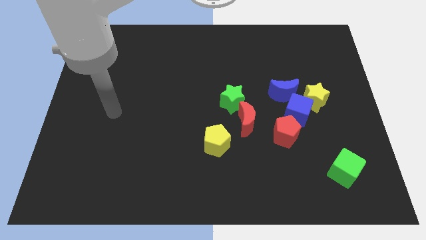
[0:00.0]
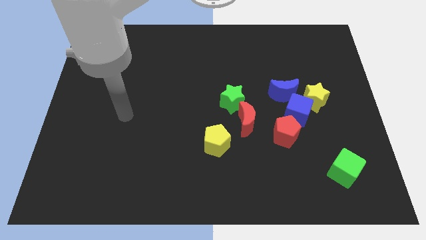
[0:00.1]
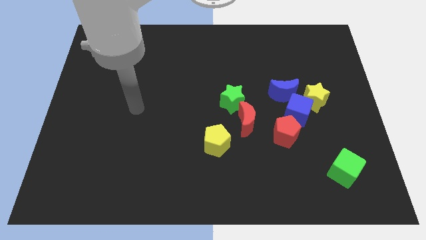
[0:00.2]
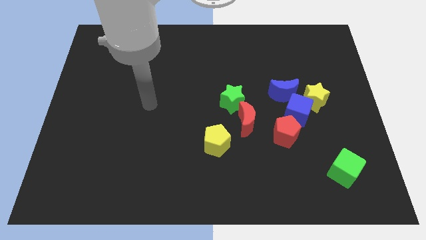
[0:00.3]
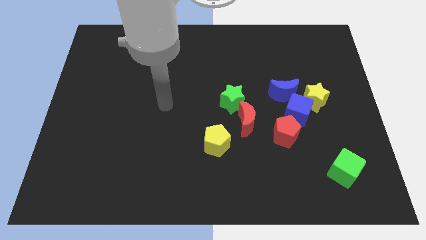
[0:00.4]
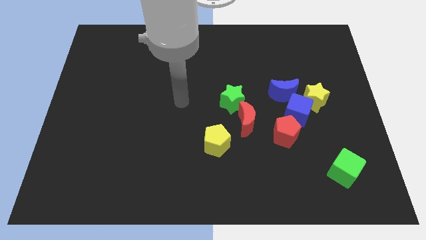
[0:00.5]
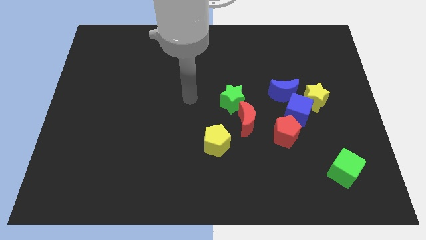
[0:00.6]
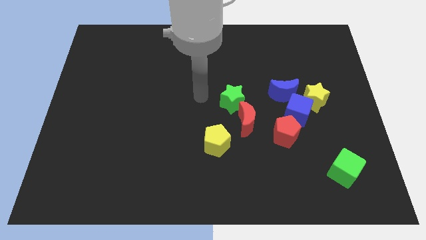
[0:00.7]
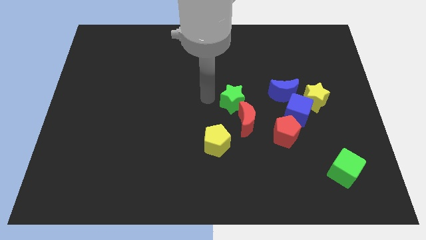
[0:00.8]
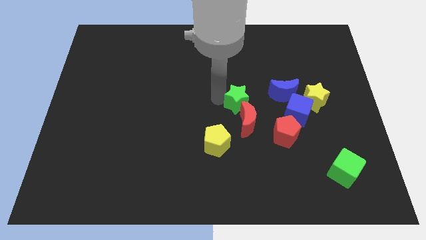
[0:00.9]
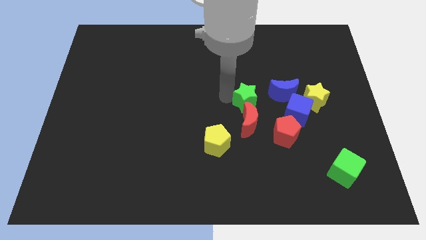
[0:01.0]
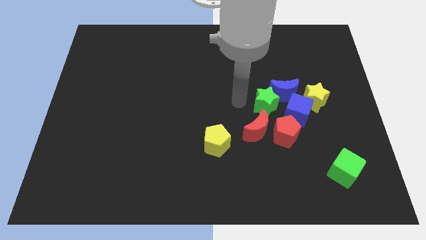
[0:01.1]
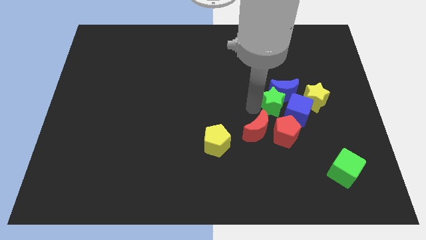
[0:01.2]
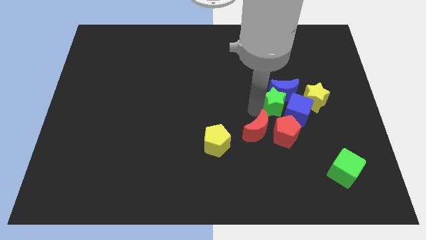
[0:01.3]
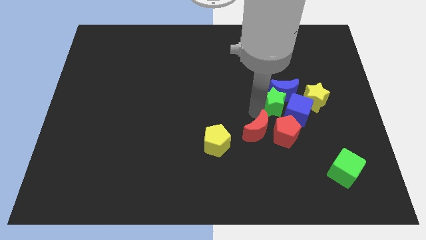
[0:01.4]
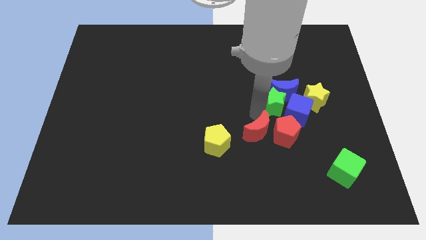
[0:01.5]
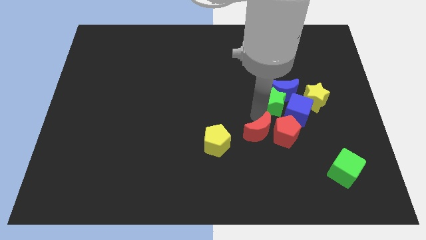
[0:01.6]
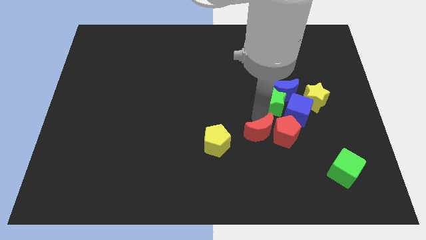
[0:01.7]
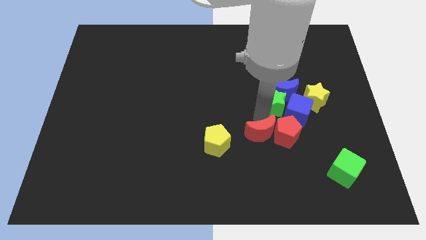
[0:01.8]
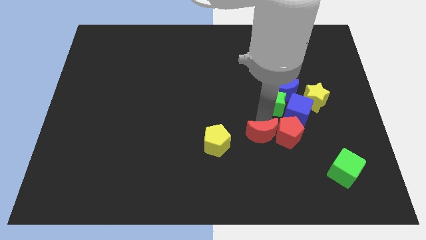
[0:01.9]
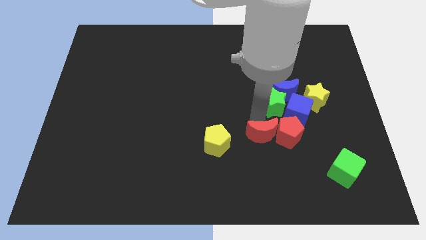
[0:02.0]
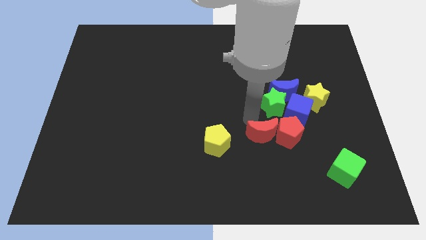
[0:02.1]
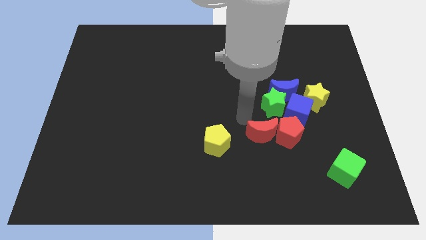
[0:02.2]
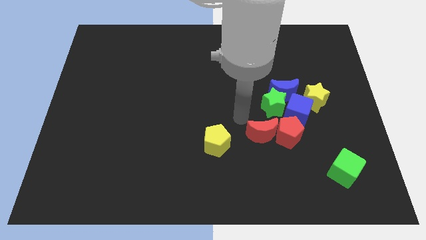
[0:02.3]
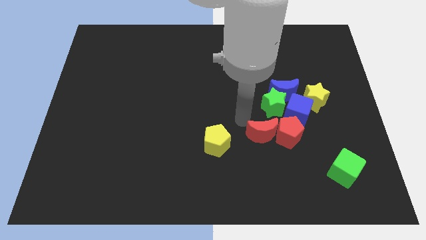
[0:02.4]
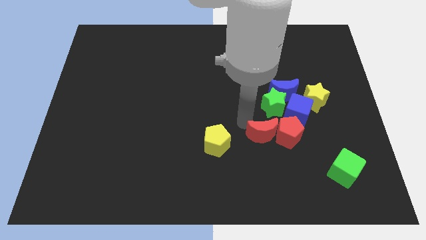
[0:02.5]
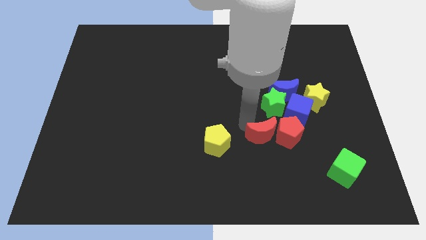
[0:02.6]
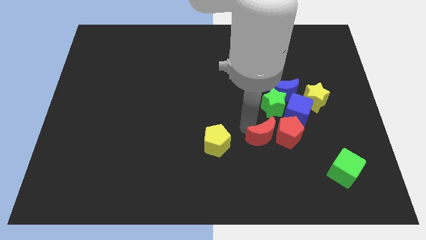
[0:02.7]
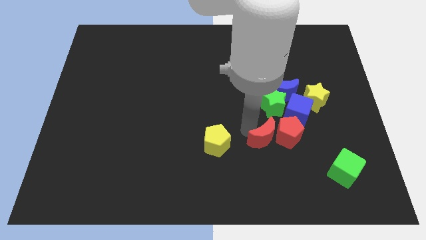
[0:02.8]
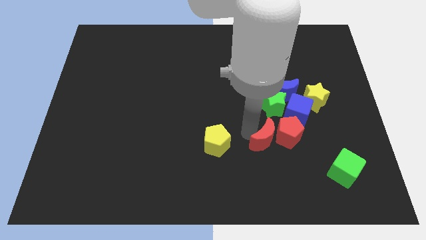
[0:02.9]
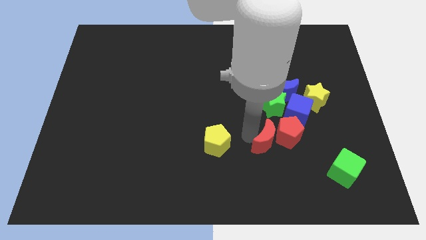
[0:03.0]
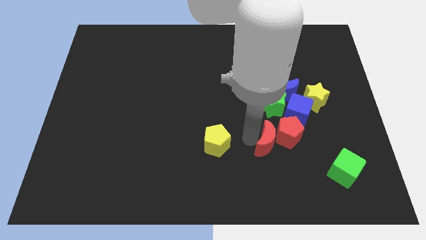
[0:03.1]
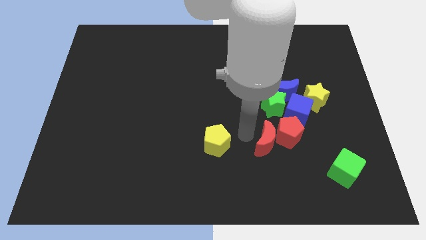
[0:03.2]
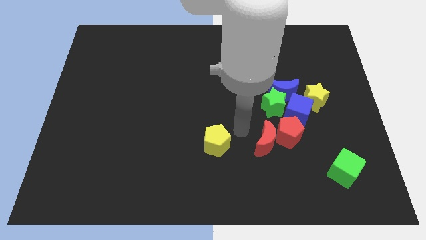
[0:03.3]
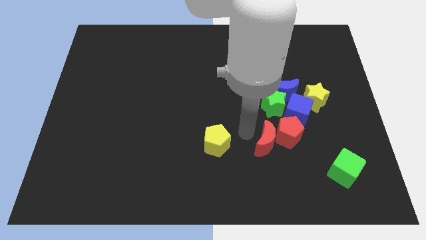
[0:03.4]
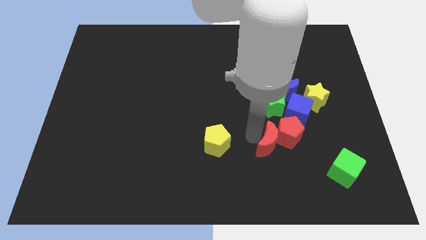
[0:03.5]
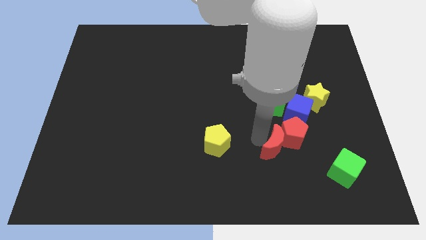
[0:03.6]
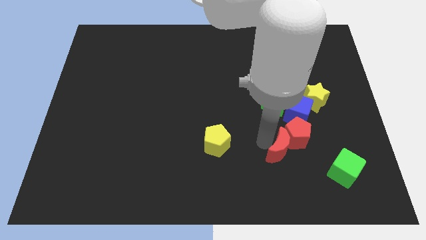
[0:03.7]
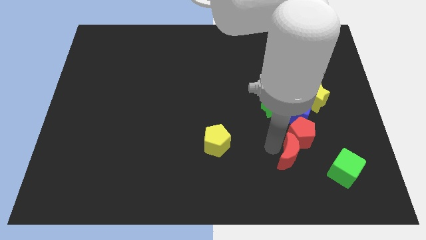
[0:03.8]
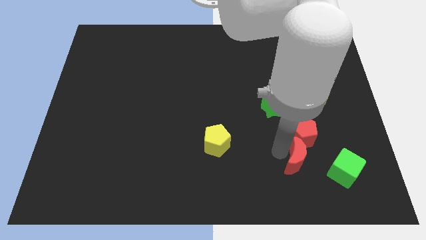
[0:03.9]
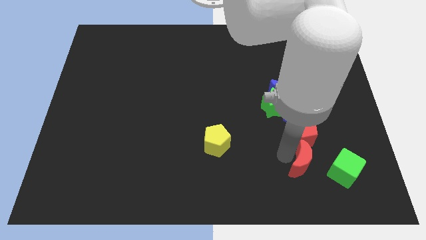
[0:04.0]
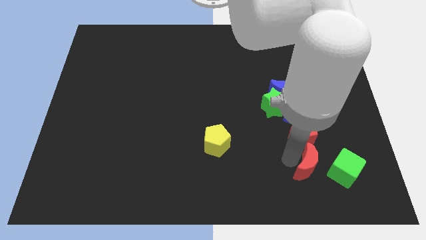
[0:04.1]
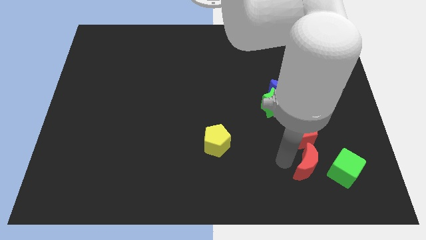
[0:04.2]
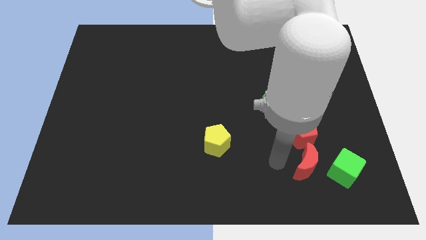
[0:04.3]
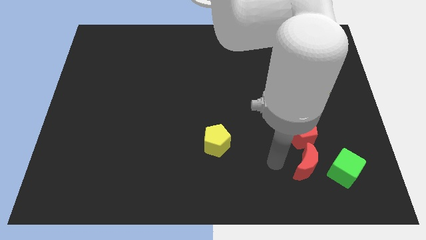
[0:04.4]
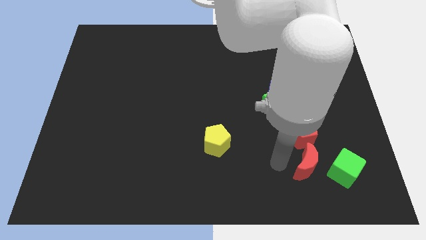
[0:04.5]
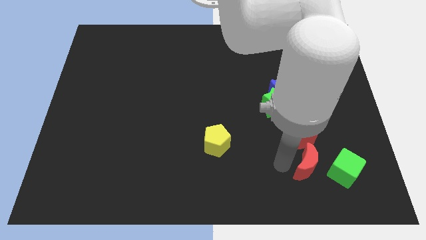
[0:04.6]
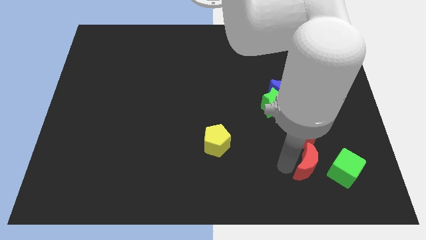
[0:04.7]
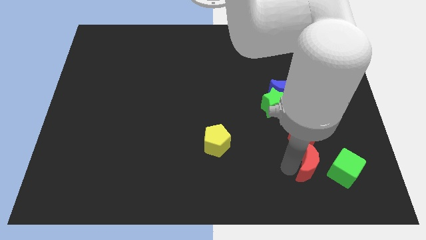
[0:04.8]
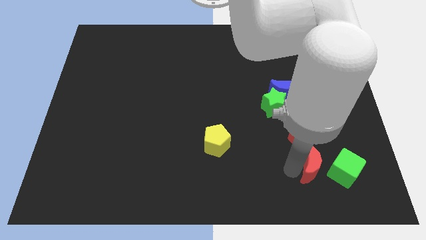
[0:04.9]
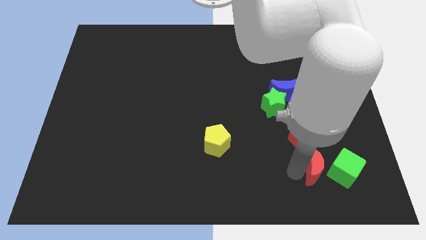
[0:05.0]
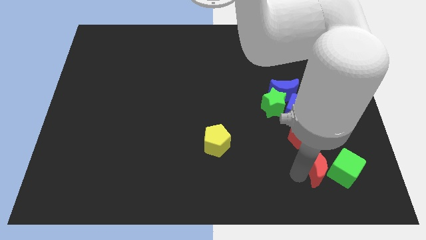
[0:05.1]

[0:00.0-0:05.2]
move the red moon close to the green cube

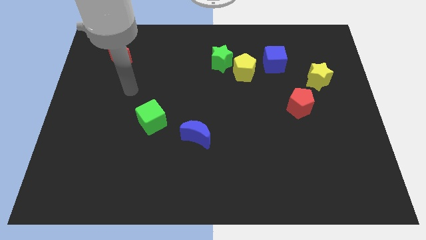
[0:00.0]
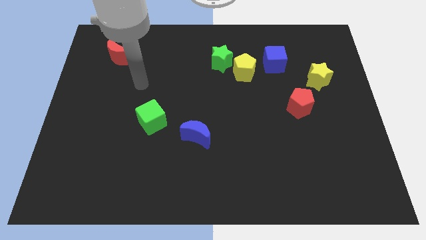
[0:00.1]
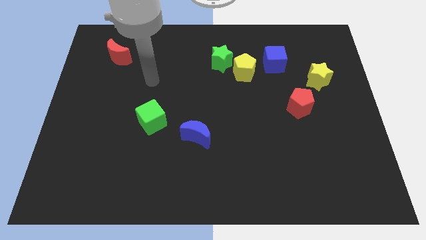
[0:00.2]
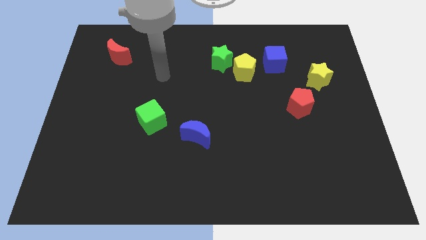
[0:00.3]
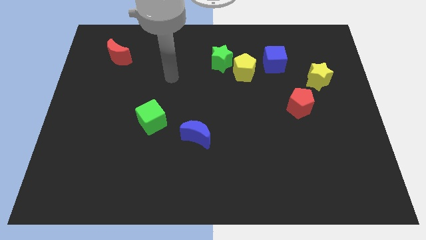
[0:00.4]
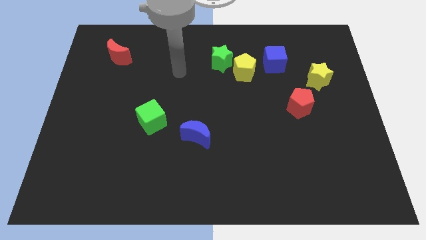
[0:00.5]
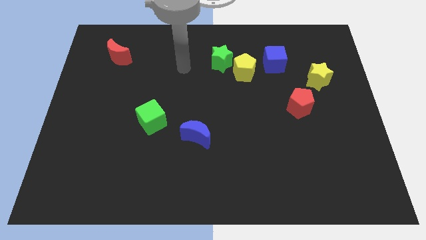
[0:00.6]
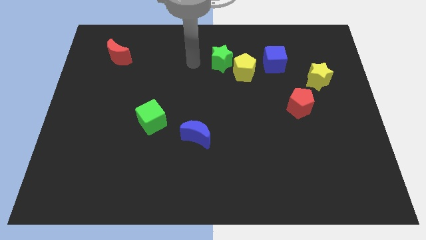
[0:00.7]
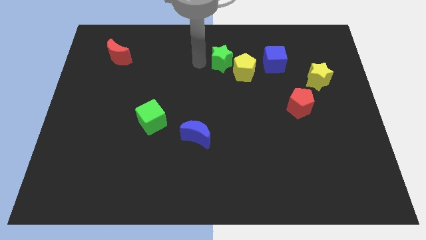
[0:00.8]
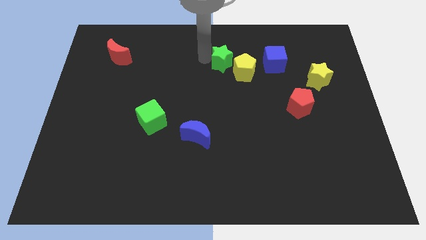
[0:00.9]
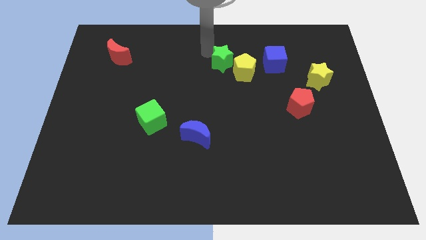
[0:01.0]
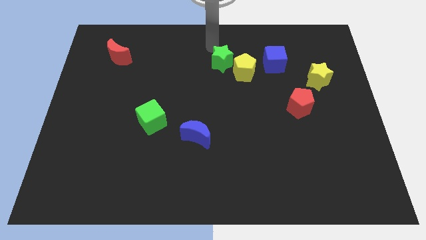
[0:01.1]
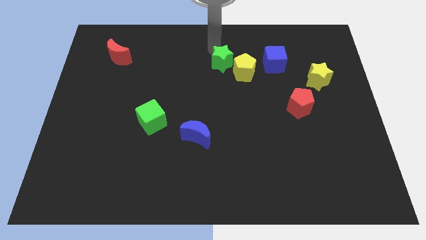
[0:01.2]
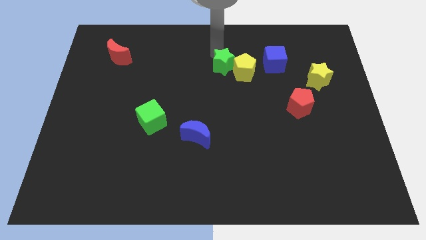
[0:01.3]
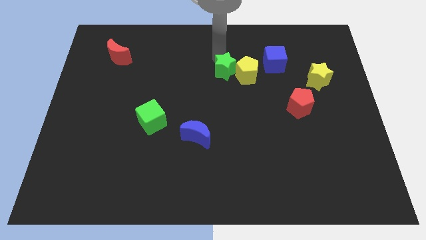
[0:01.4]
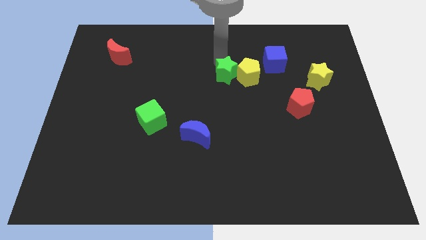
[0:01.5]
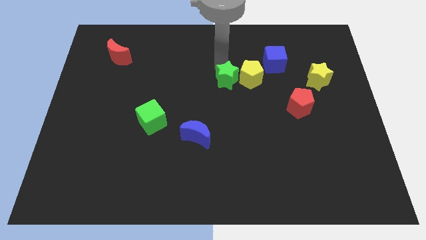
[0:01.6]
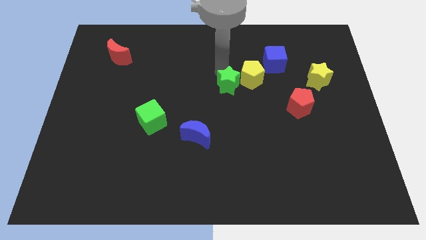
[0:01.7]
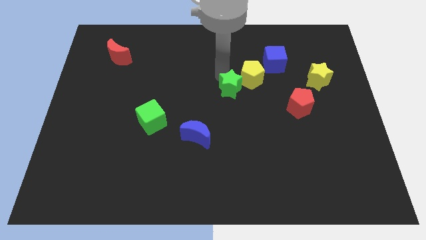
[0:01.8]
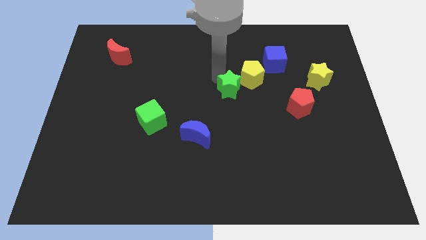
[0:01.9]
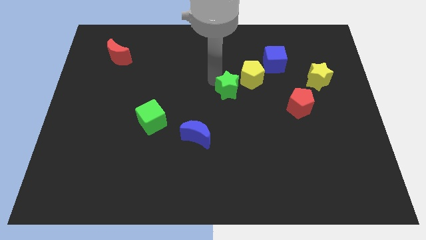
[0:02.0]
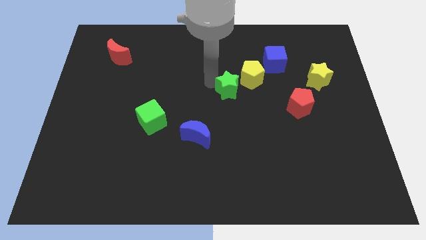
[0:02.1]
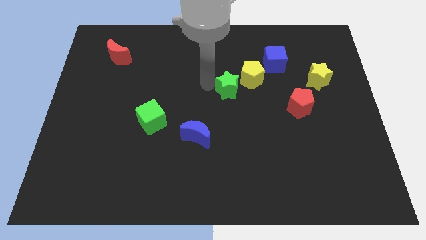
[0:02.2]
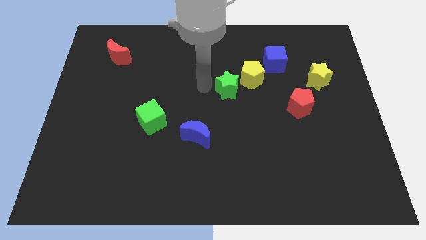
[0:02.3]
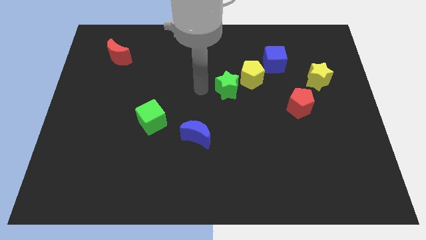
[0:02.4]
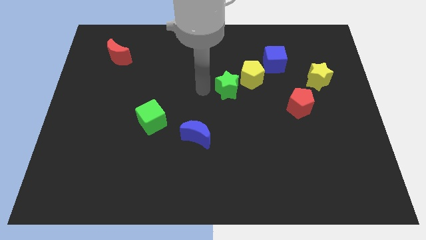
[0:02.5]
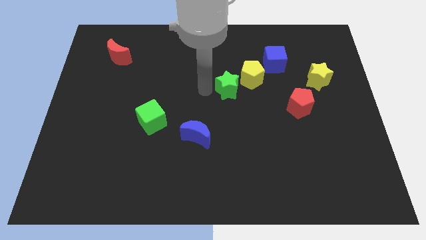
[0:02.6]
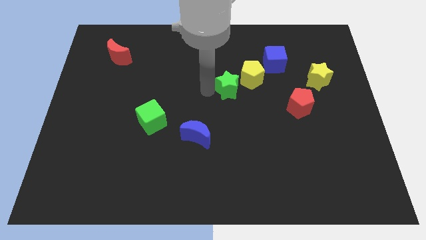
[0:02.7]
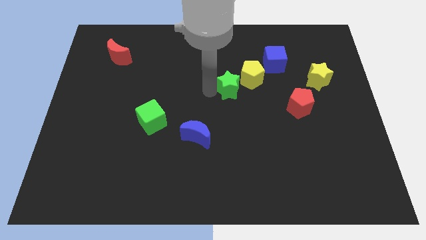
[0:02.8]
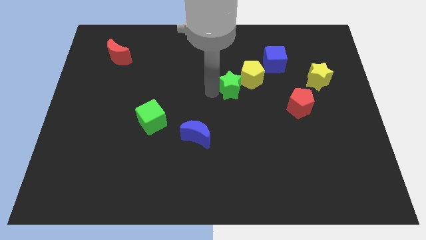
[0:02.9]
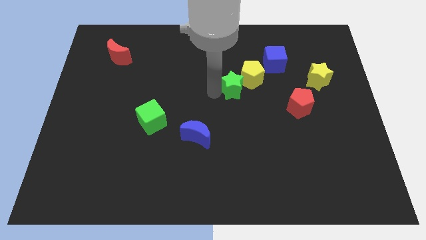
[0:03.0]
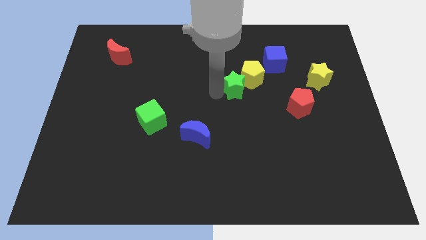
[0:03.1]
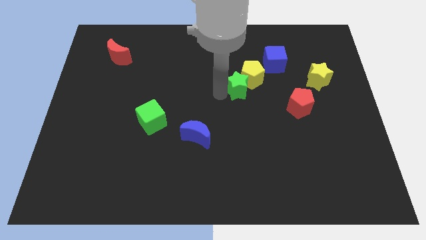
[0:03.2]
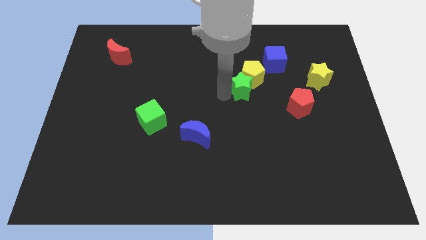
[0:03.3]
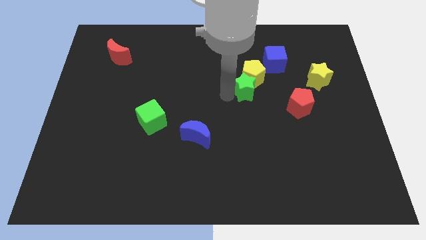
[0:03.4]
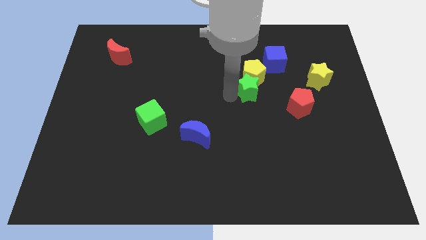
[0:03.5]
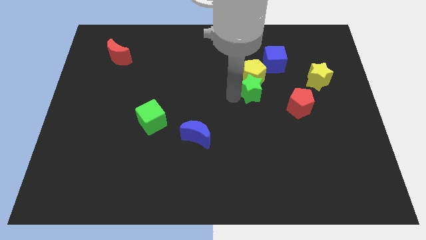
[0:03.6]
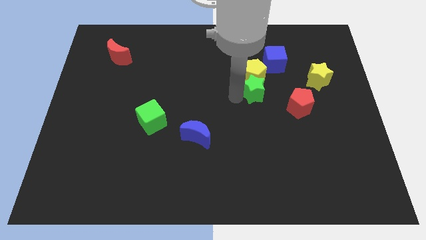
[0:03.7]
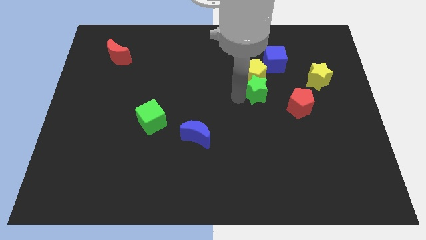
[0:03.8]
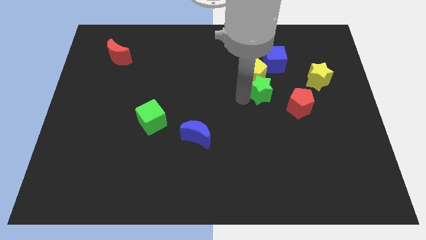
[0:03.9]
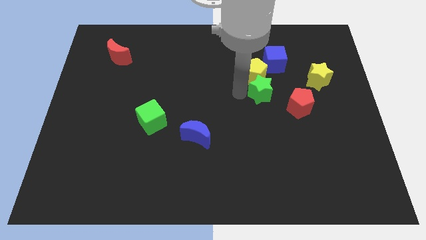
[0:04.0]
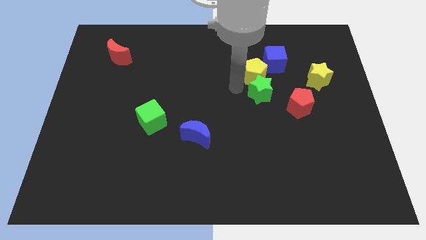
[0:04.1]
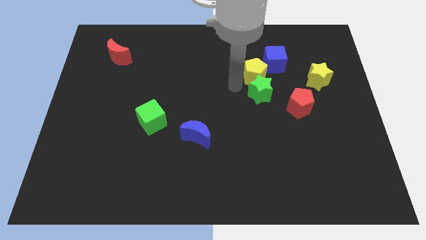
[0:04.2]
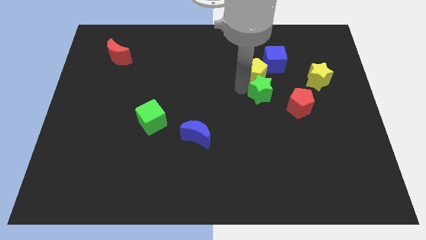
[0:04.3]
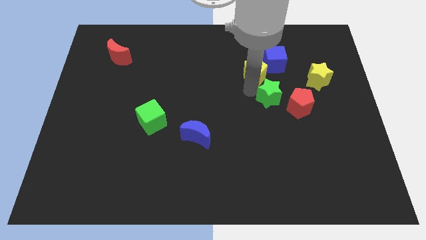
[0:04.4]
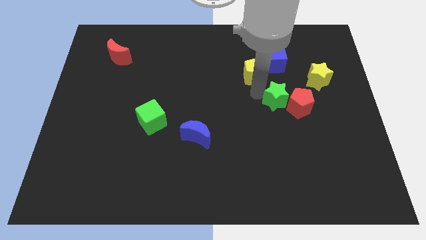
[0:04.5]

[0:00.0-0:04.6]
slide the green star towards the red pentagon
